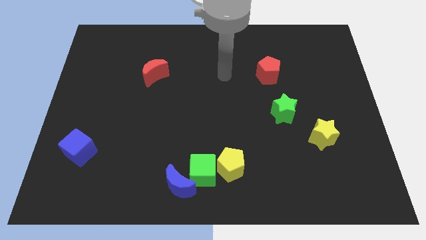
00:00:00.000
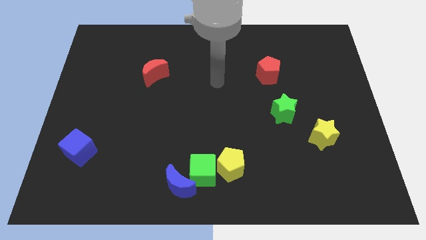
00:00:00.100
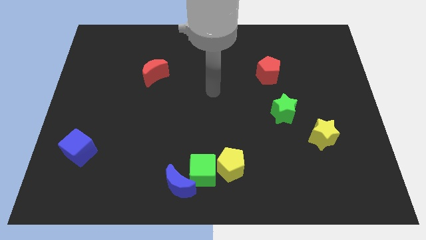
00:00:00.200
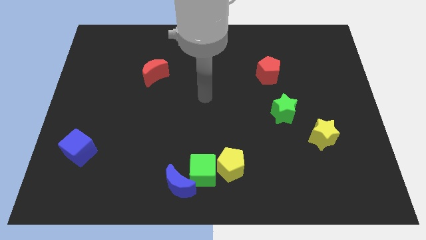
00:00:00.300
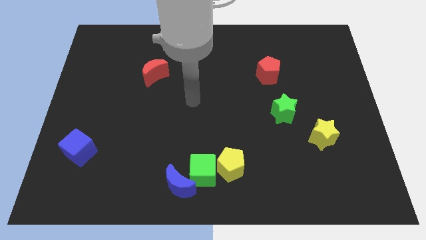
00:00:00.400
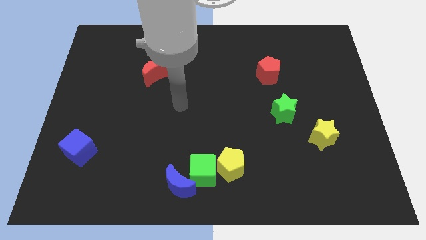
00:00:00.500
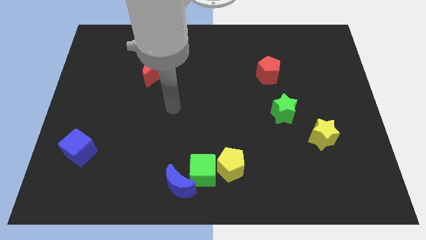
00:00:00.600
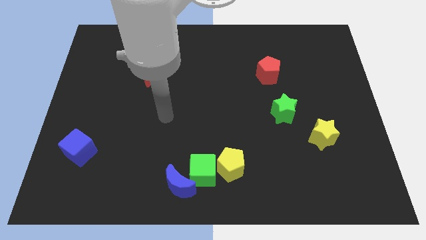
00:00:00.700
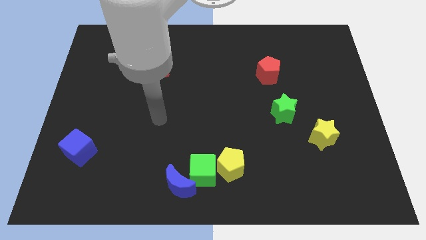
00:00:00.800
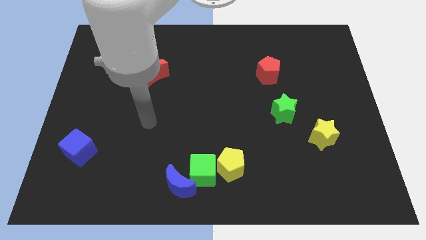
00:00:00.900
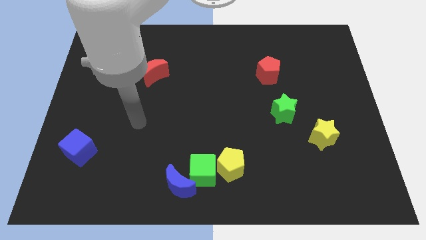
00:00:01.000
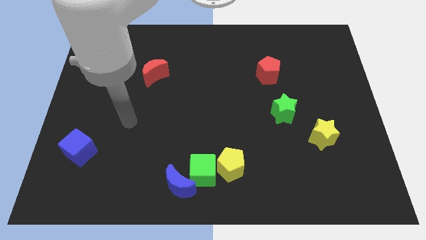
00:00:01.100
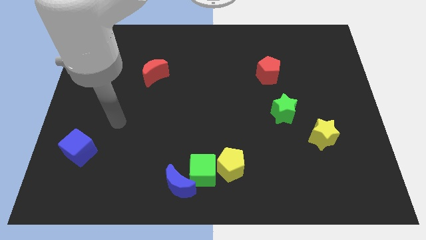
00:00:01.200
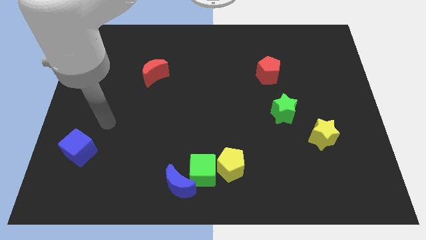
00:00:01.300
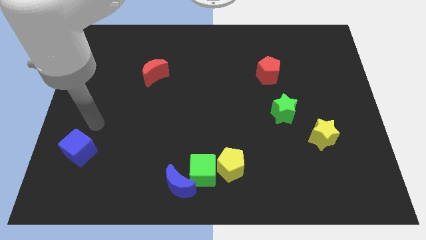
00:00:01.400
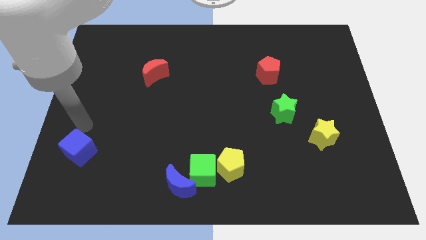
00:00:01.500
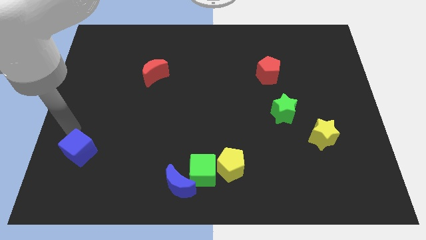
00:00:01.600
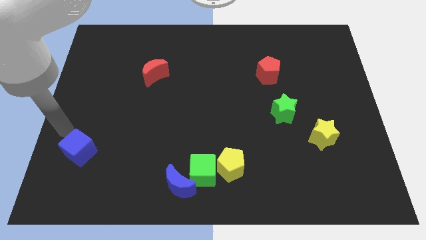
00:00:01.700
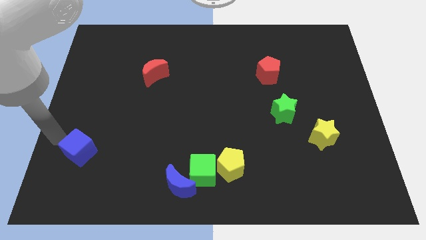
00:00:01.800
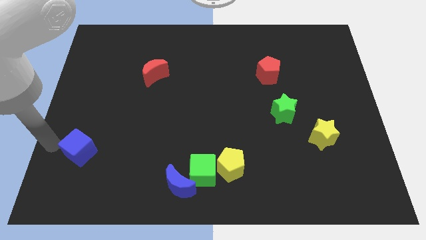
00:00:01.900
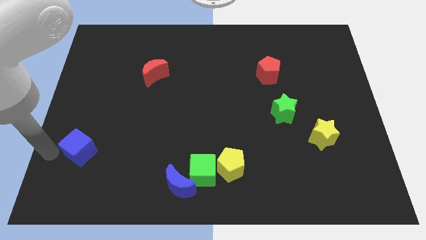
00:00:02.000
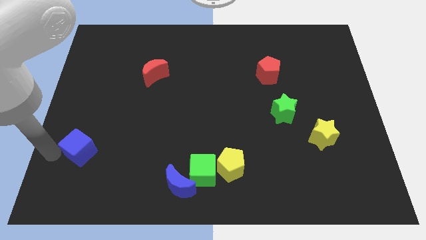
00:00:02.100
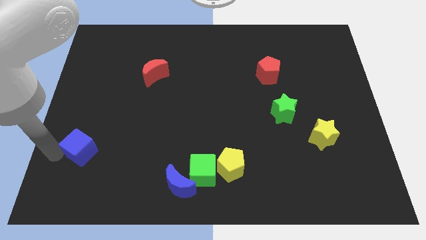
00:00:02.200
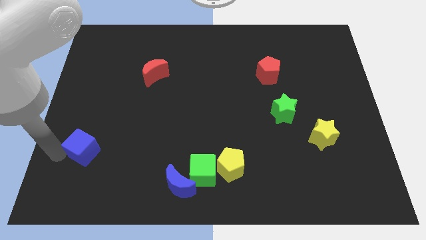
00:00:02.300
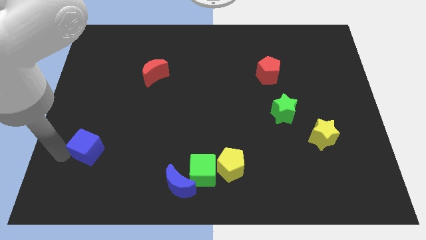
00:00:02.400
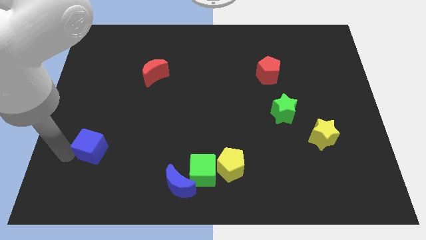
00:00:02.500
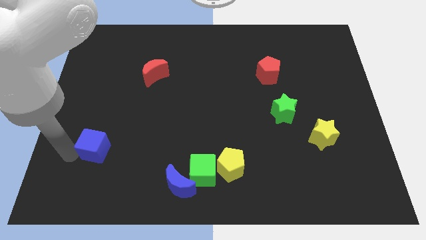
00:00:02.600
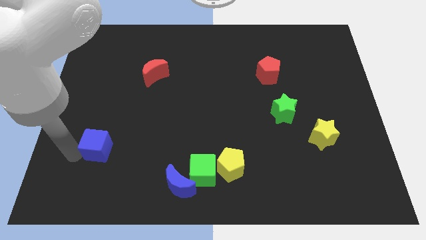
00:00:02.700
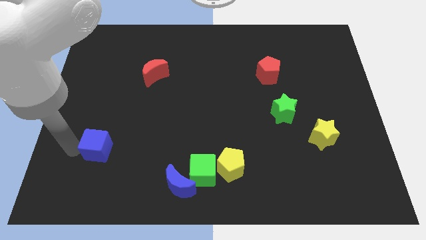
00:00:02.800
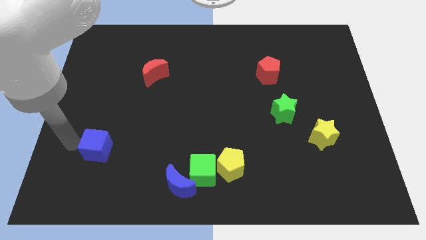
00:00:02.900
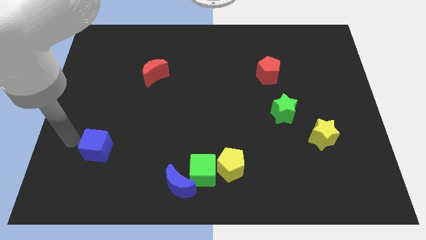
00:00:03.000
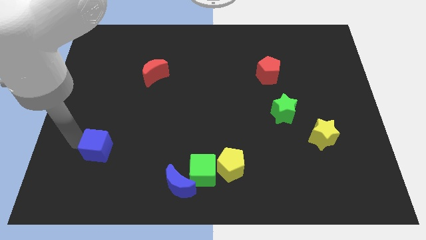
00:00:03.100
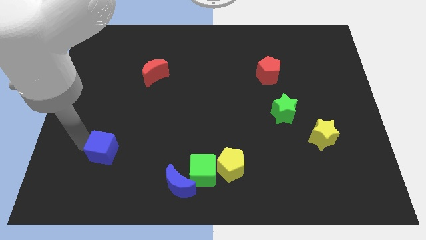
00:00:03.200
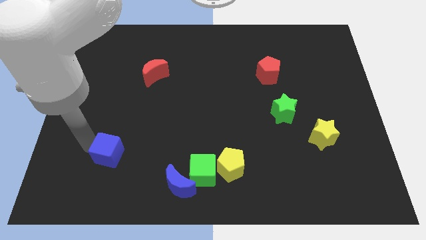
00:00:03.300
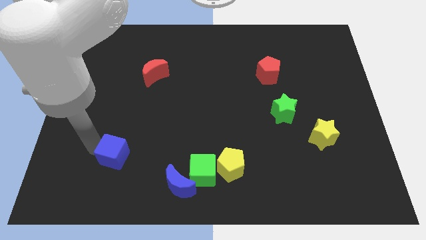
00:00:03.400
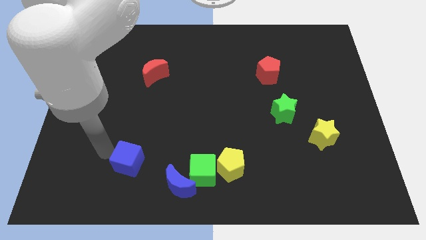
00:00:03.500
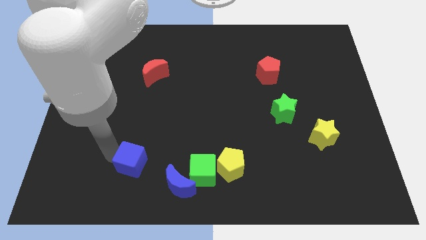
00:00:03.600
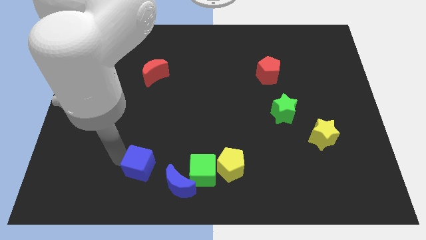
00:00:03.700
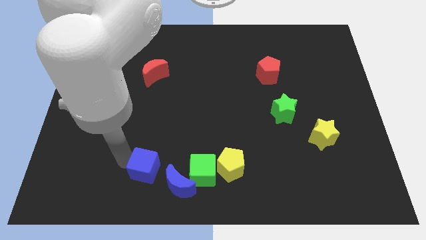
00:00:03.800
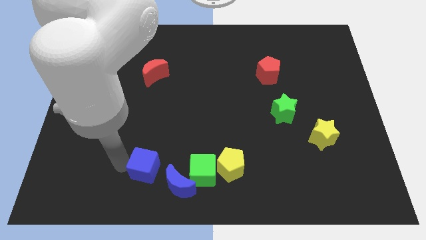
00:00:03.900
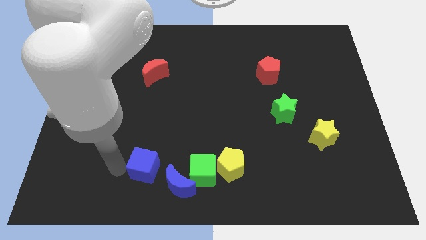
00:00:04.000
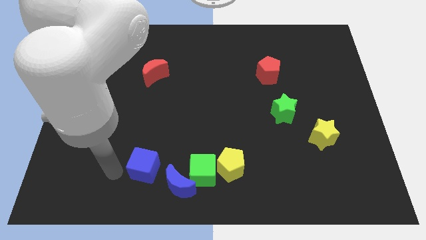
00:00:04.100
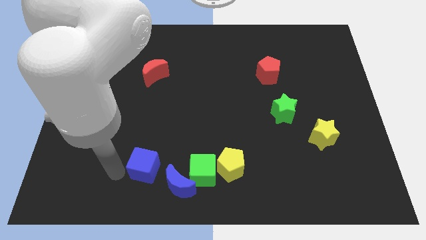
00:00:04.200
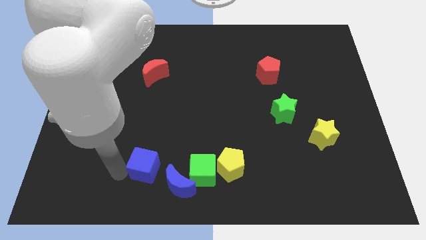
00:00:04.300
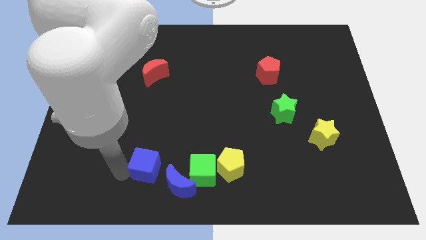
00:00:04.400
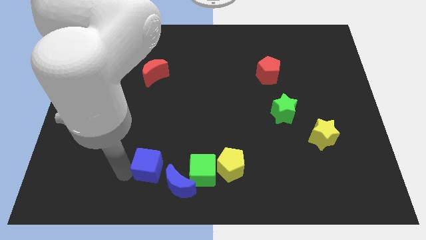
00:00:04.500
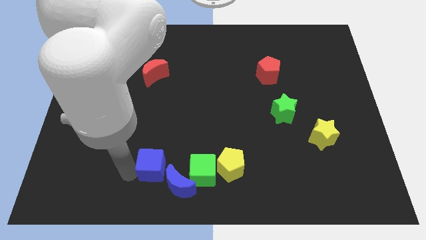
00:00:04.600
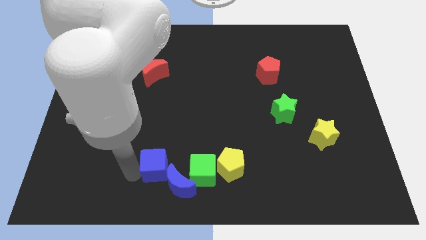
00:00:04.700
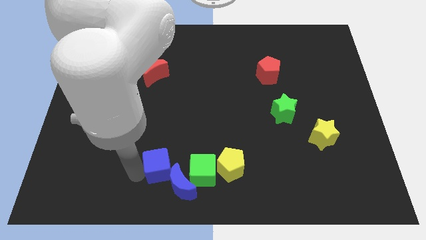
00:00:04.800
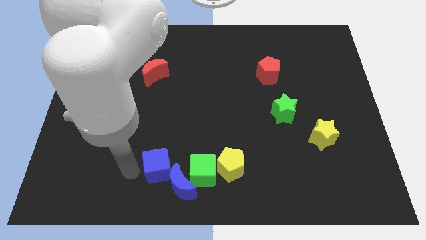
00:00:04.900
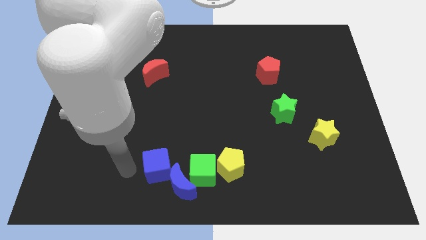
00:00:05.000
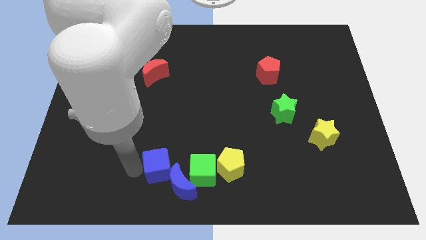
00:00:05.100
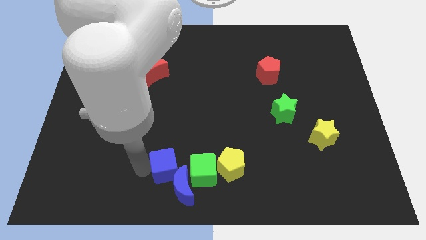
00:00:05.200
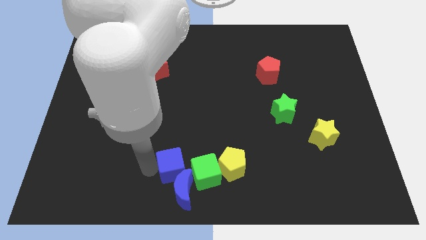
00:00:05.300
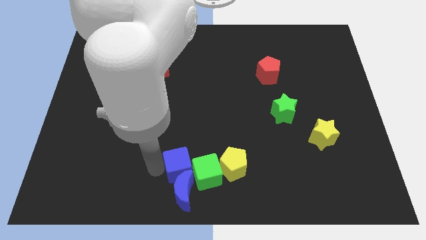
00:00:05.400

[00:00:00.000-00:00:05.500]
put the blue cube towards the green cube

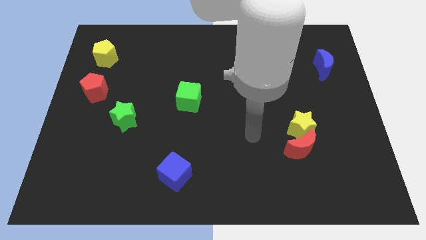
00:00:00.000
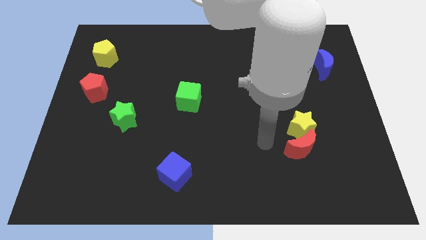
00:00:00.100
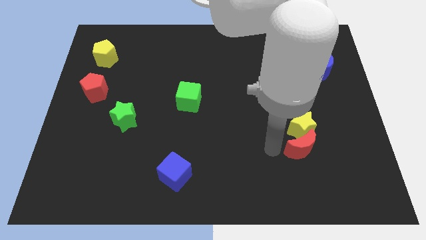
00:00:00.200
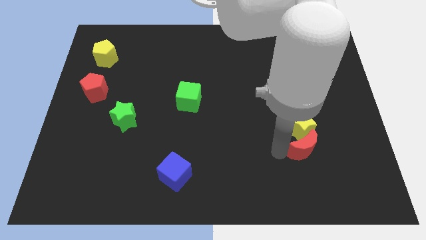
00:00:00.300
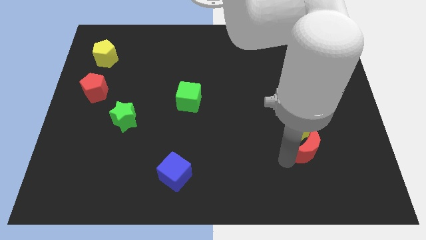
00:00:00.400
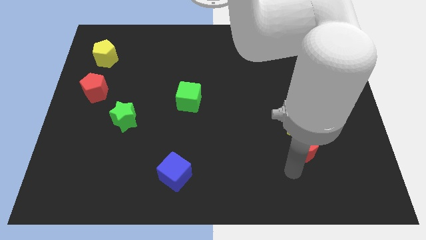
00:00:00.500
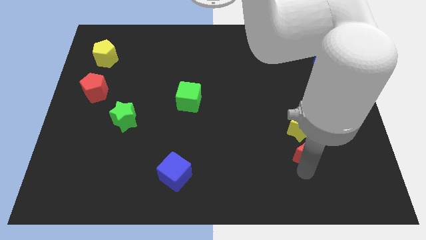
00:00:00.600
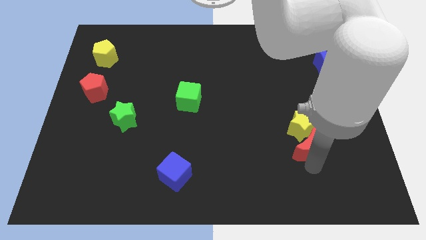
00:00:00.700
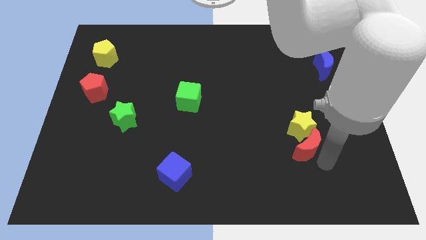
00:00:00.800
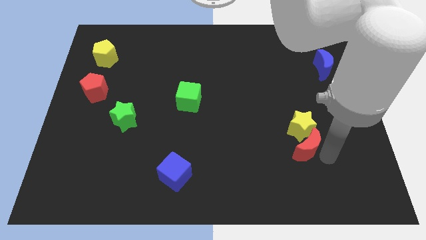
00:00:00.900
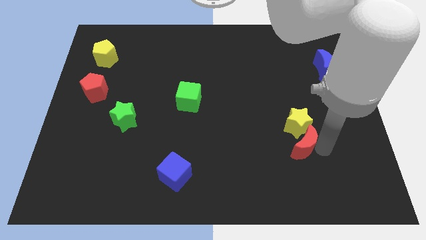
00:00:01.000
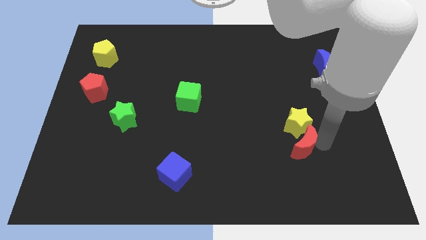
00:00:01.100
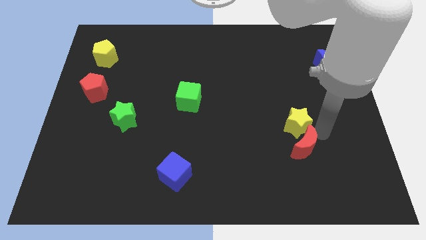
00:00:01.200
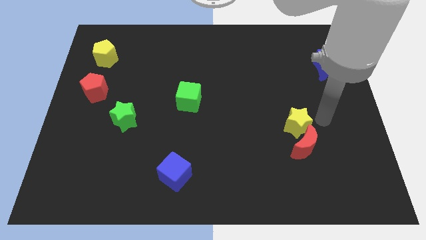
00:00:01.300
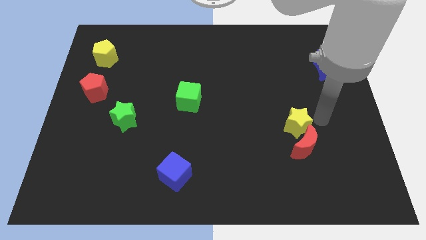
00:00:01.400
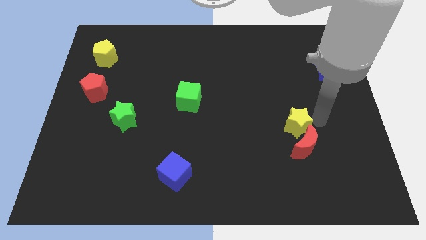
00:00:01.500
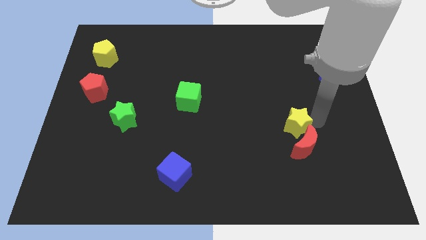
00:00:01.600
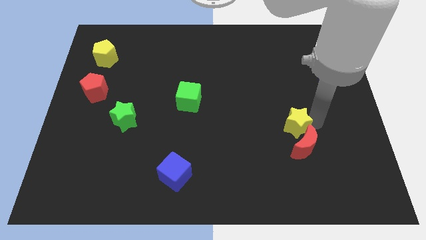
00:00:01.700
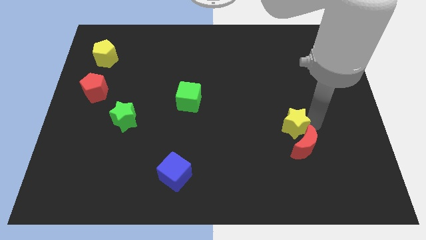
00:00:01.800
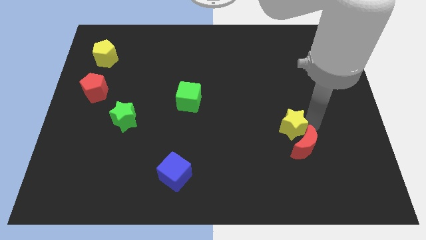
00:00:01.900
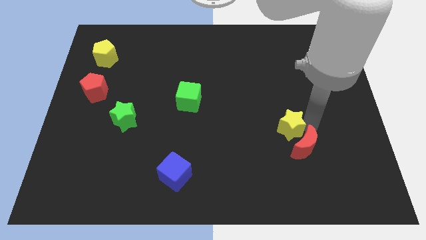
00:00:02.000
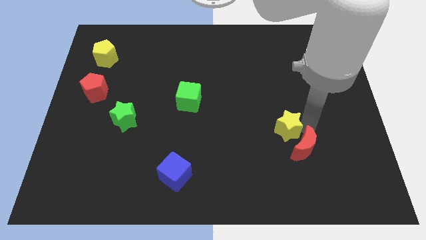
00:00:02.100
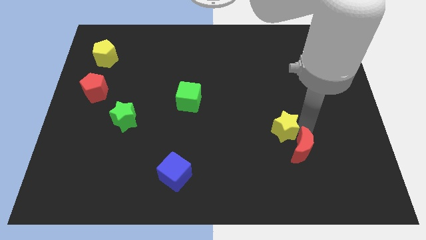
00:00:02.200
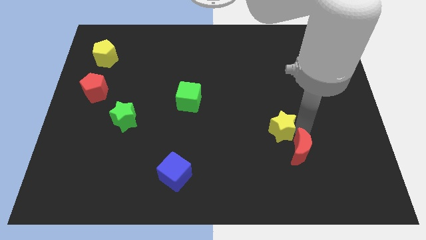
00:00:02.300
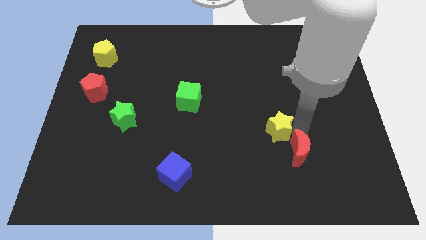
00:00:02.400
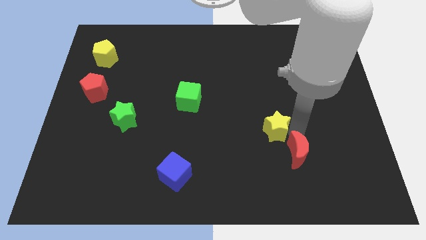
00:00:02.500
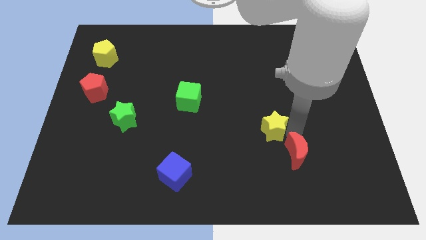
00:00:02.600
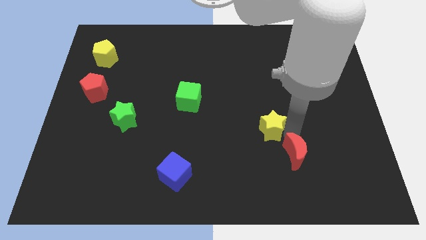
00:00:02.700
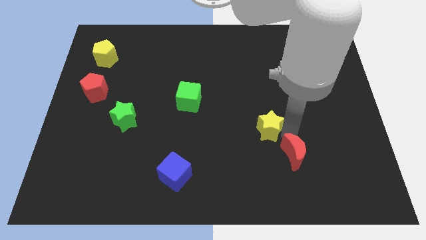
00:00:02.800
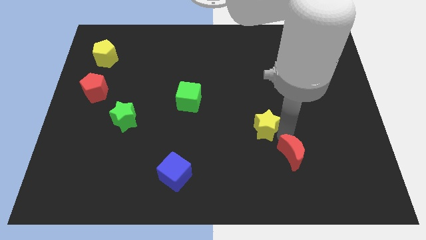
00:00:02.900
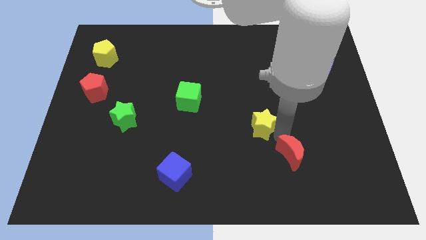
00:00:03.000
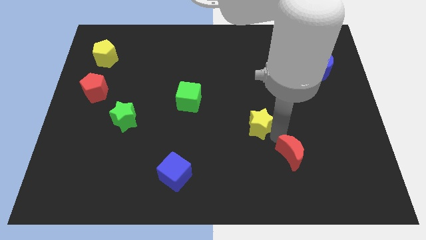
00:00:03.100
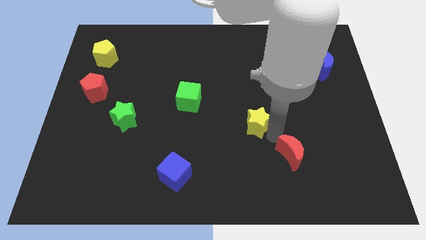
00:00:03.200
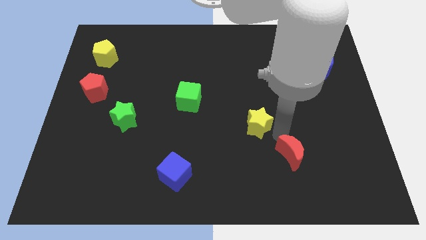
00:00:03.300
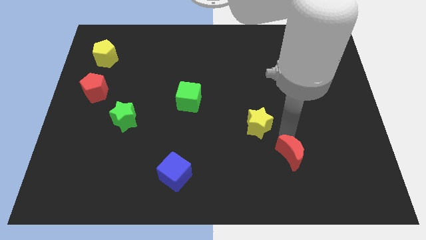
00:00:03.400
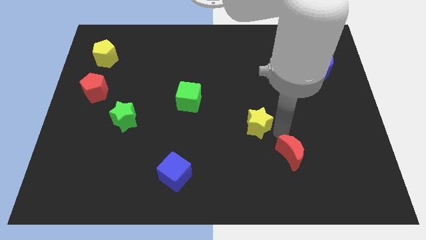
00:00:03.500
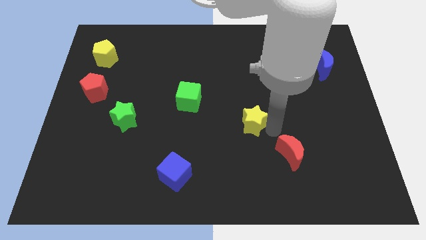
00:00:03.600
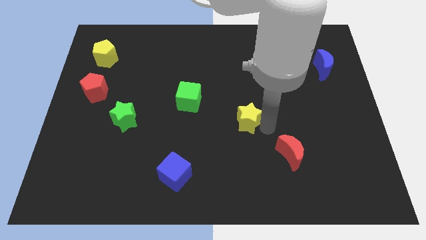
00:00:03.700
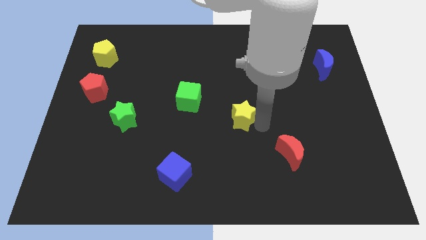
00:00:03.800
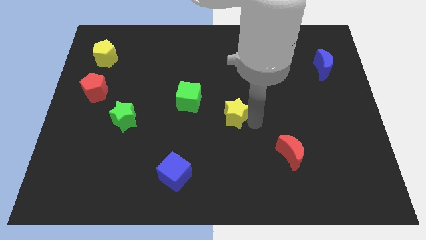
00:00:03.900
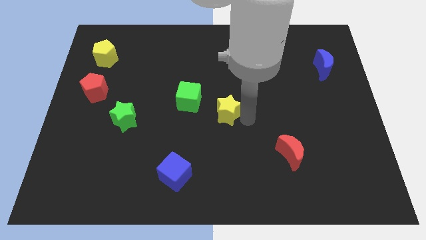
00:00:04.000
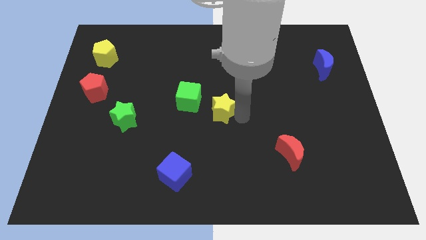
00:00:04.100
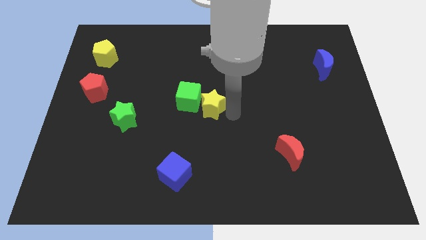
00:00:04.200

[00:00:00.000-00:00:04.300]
move the yellow star to the green cube
